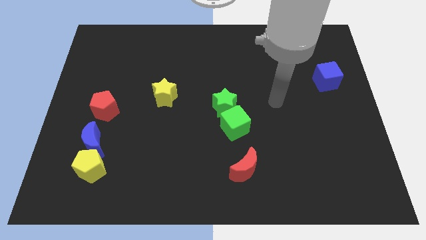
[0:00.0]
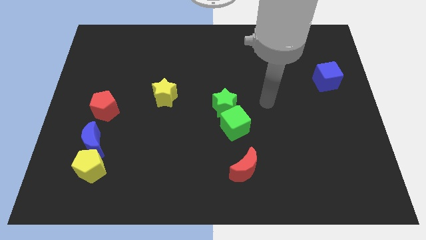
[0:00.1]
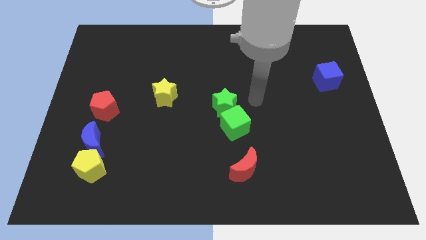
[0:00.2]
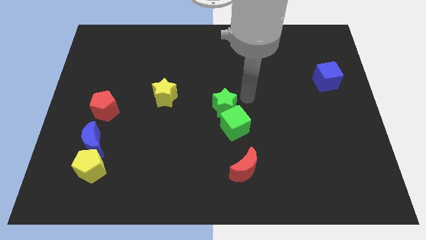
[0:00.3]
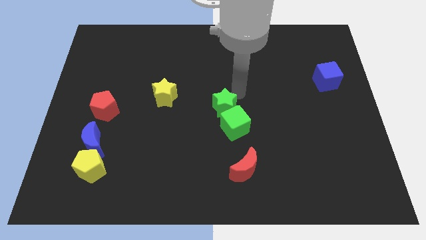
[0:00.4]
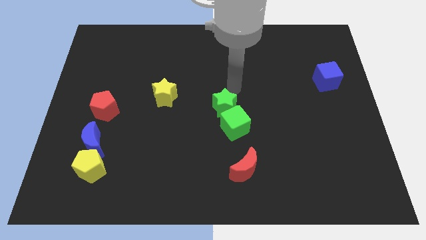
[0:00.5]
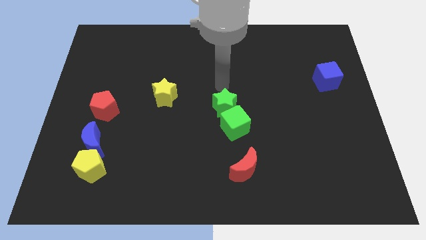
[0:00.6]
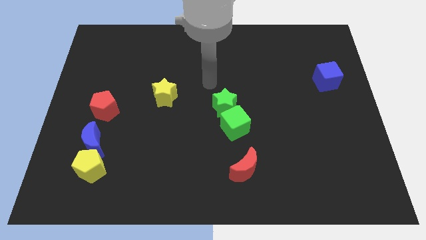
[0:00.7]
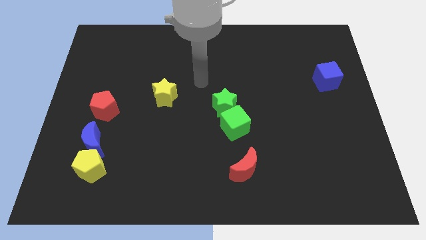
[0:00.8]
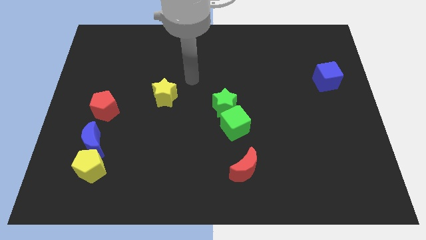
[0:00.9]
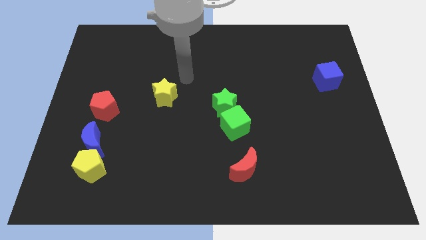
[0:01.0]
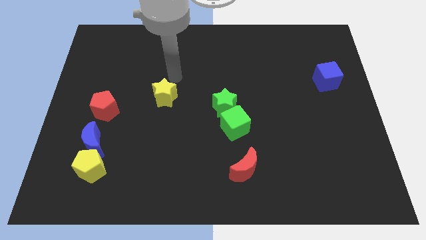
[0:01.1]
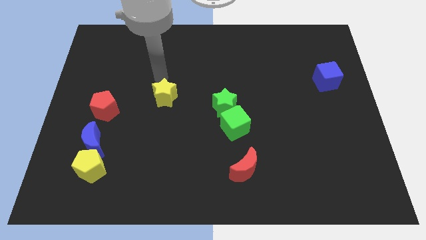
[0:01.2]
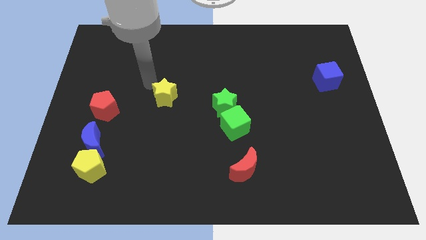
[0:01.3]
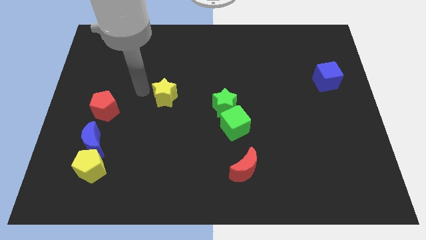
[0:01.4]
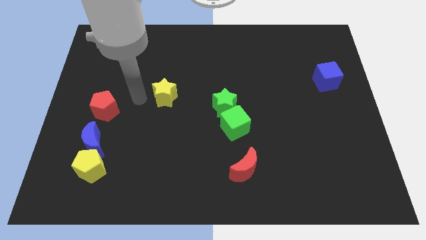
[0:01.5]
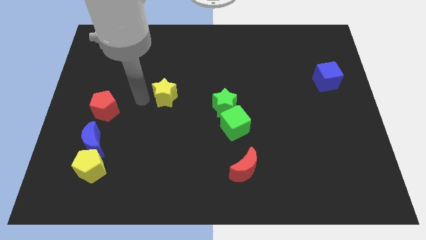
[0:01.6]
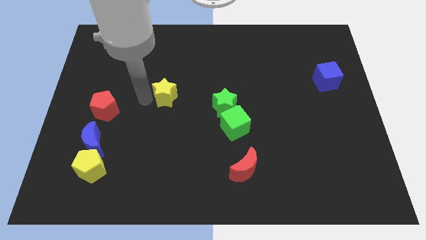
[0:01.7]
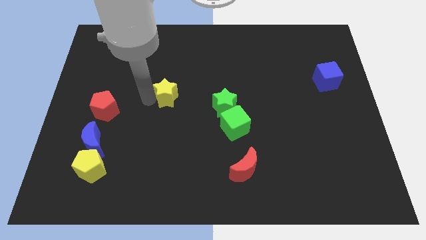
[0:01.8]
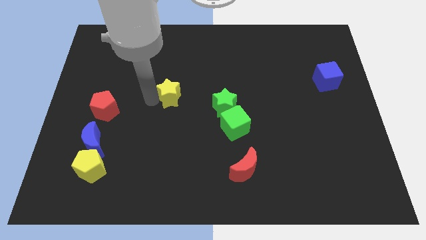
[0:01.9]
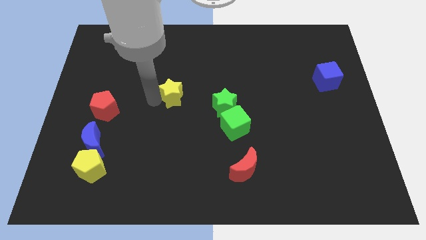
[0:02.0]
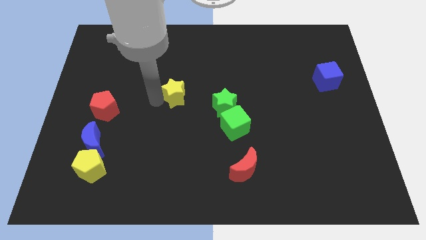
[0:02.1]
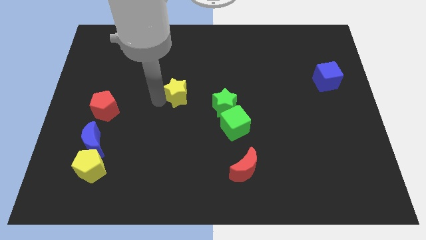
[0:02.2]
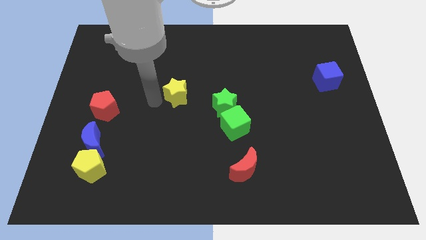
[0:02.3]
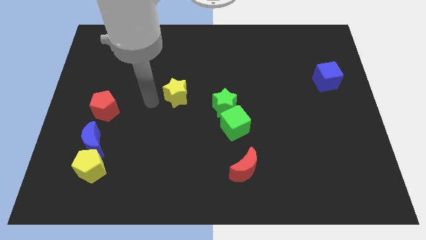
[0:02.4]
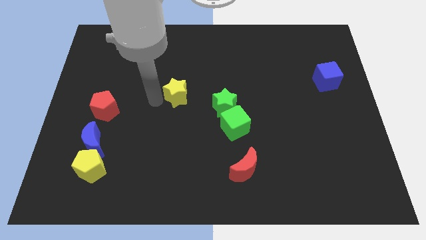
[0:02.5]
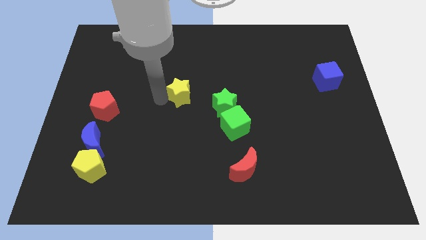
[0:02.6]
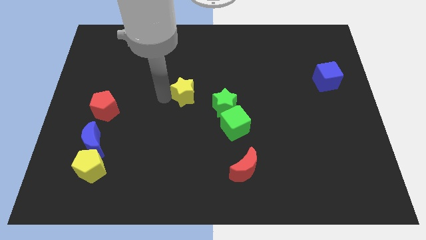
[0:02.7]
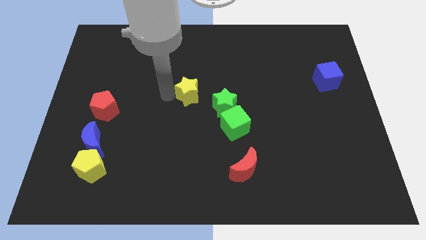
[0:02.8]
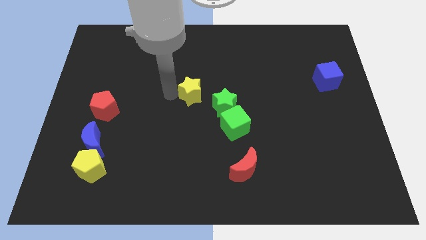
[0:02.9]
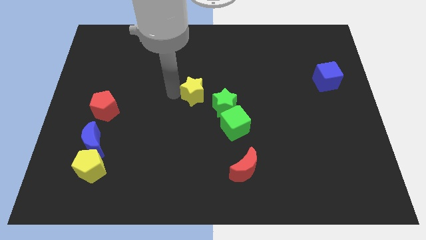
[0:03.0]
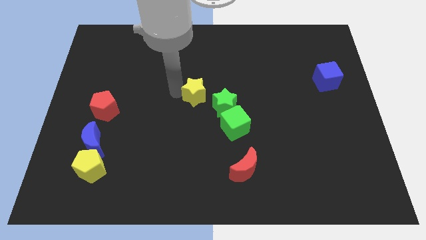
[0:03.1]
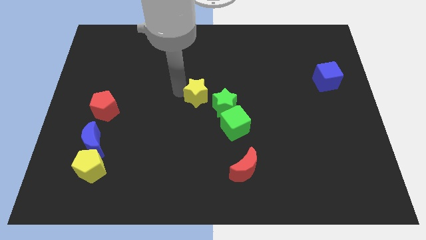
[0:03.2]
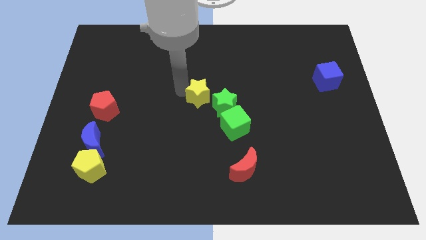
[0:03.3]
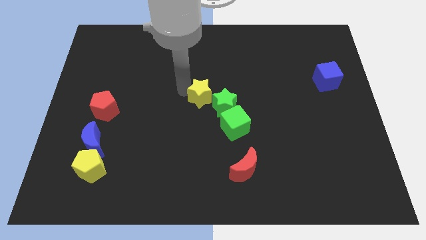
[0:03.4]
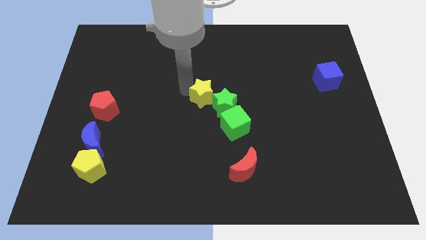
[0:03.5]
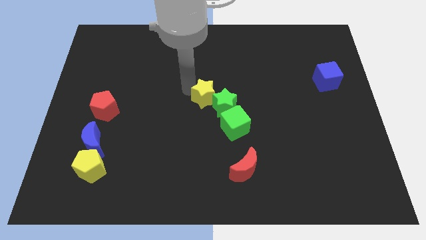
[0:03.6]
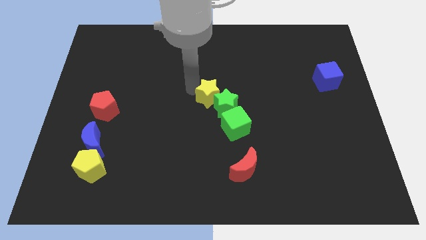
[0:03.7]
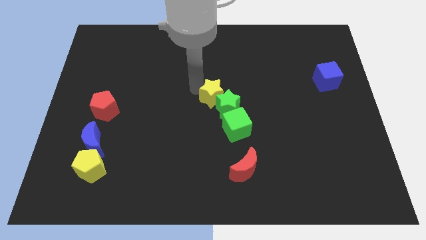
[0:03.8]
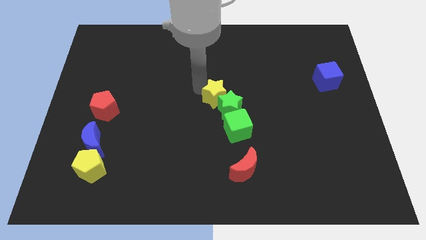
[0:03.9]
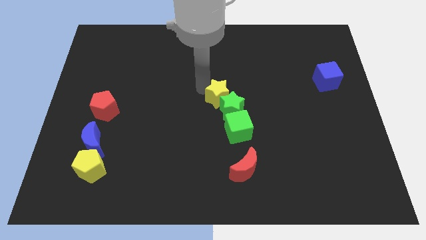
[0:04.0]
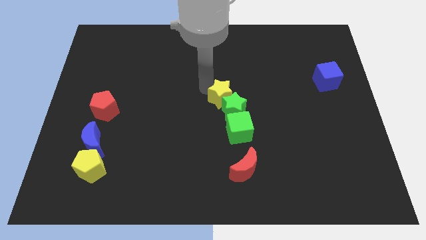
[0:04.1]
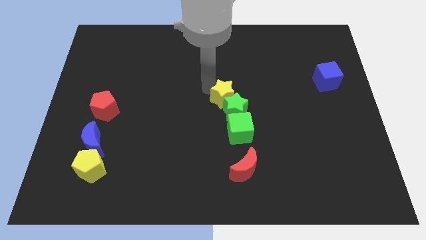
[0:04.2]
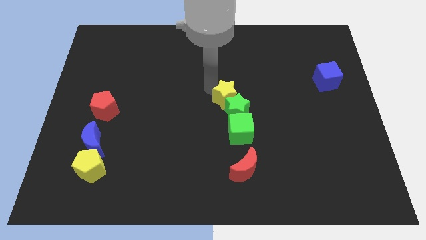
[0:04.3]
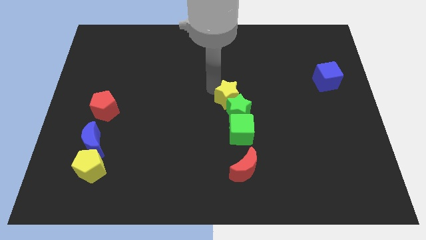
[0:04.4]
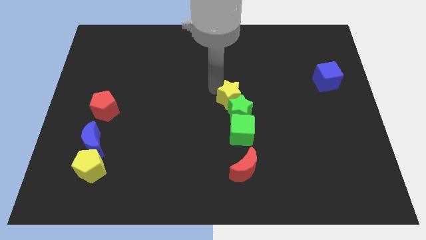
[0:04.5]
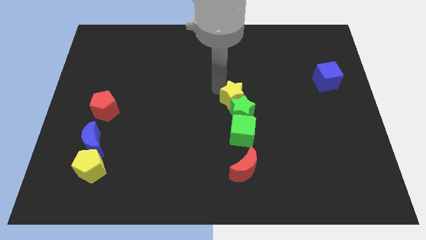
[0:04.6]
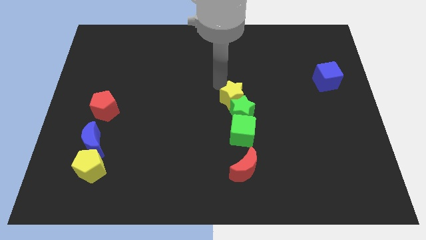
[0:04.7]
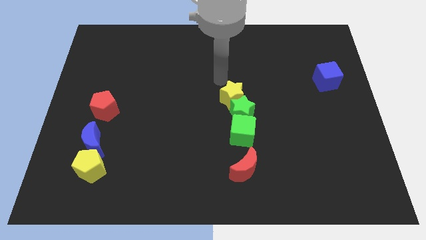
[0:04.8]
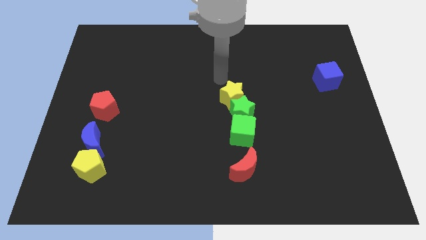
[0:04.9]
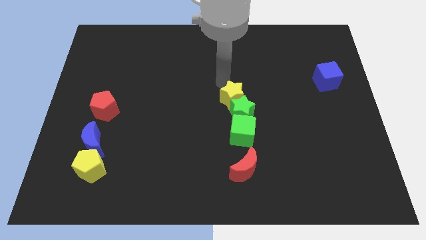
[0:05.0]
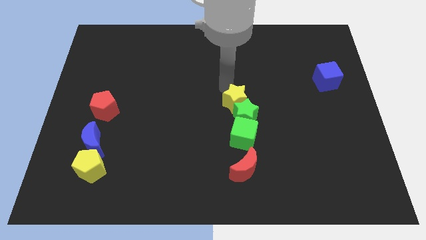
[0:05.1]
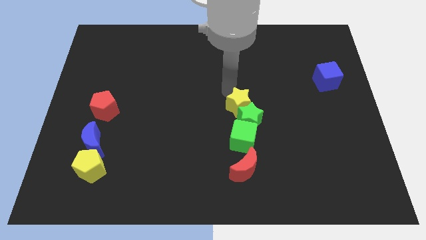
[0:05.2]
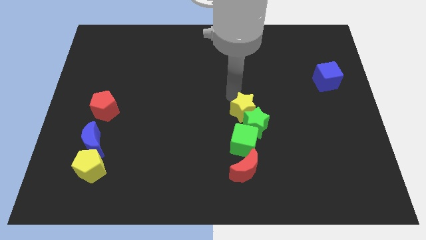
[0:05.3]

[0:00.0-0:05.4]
push the yellow star to the top of the red moon

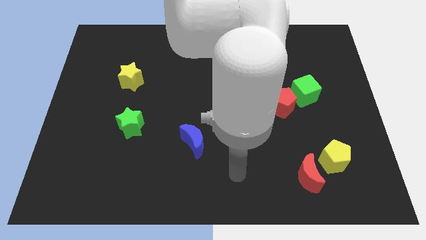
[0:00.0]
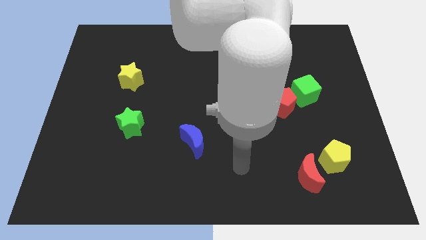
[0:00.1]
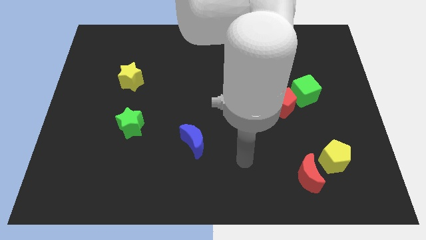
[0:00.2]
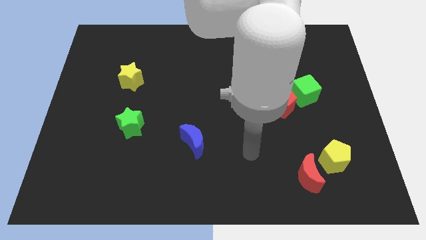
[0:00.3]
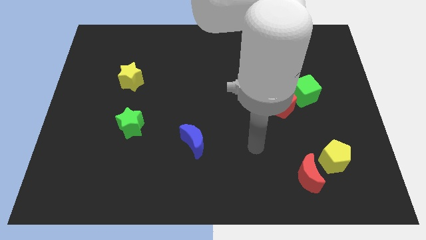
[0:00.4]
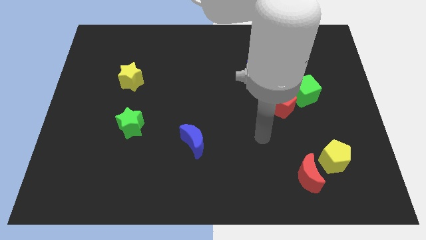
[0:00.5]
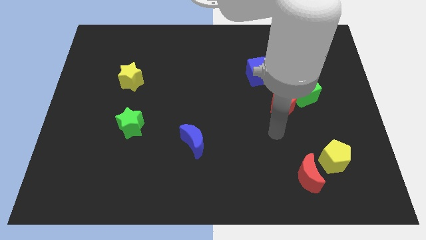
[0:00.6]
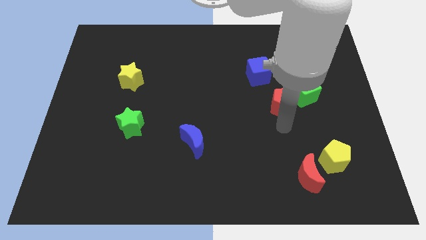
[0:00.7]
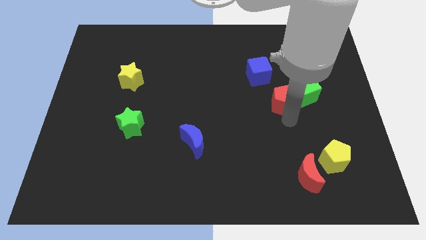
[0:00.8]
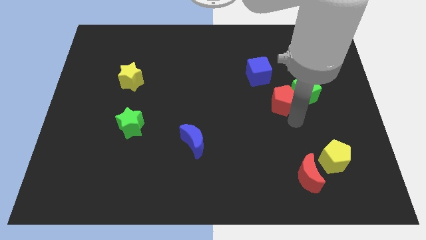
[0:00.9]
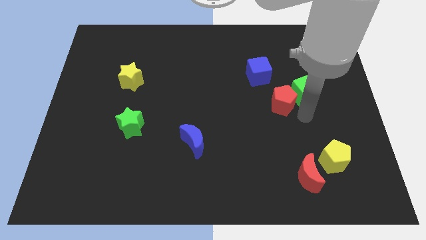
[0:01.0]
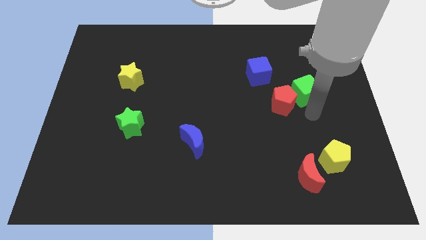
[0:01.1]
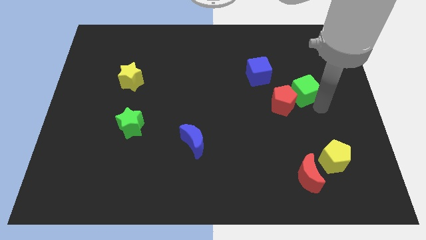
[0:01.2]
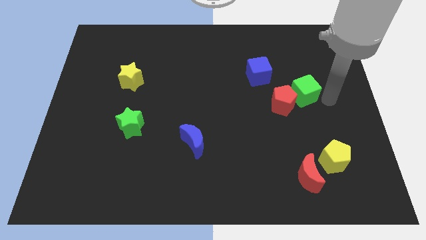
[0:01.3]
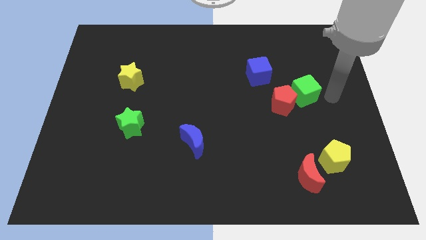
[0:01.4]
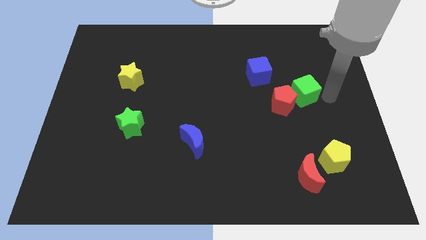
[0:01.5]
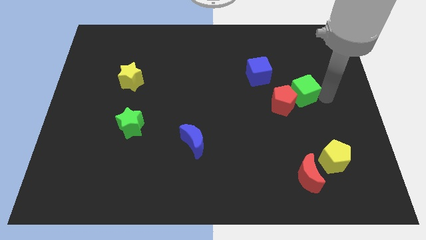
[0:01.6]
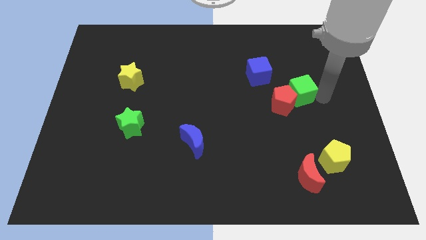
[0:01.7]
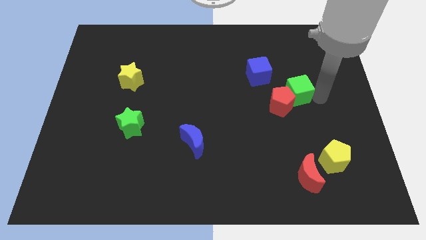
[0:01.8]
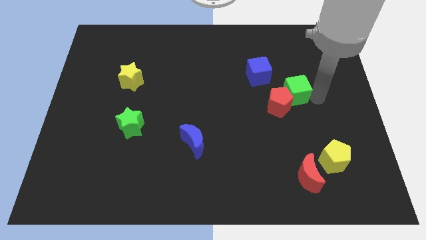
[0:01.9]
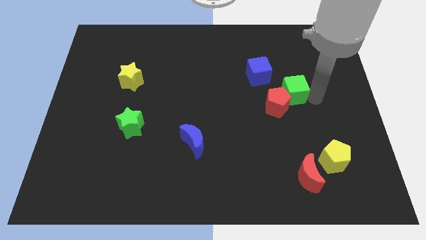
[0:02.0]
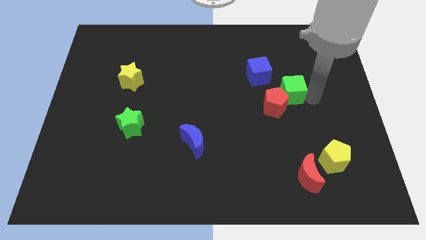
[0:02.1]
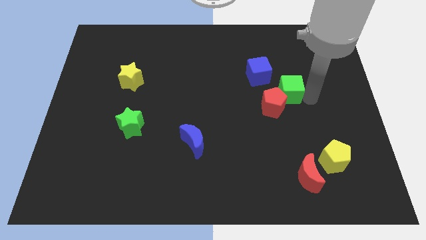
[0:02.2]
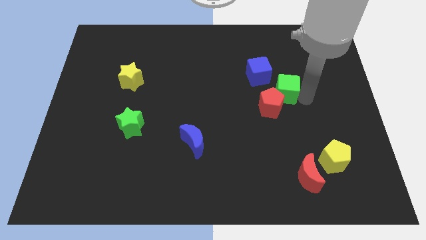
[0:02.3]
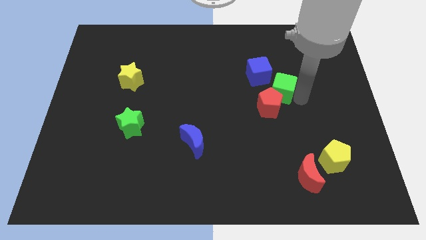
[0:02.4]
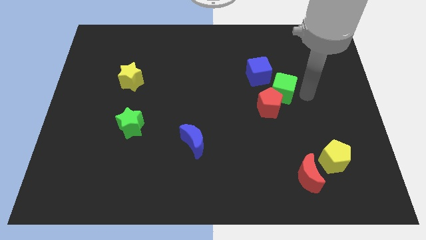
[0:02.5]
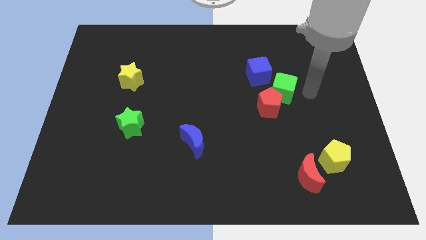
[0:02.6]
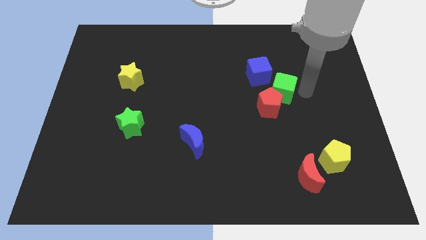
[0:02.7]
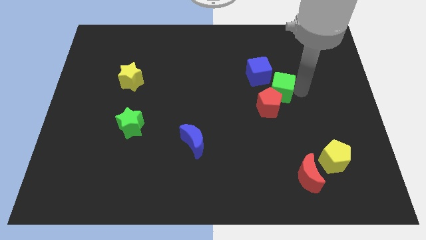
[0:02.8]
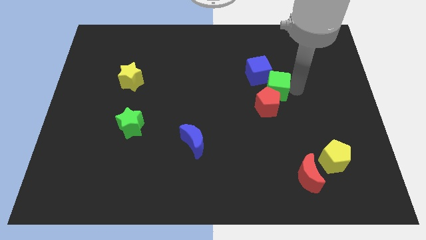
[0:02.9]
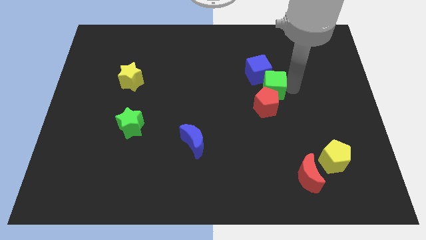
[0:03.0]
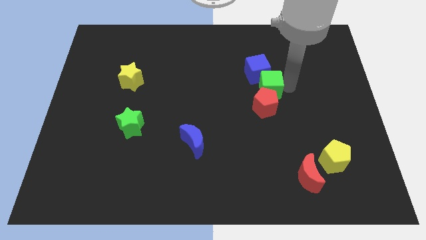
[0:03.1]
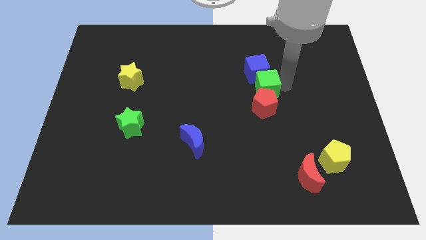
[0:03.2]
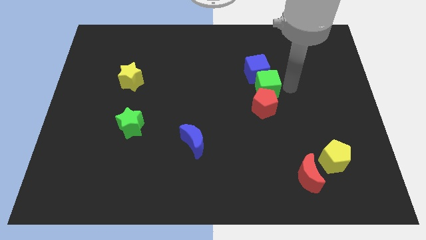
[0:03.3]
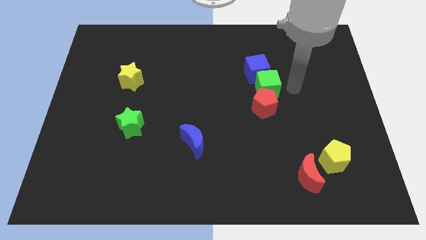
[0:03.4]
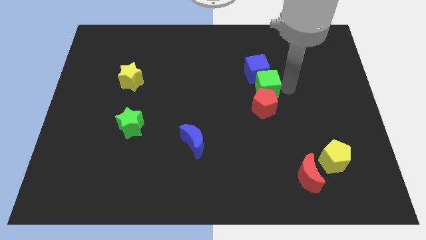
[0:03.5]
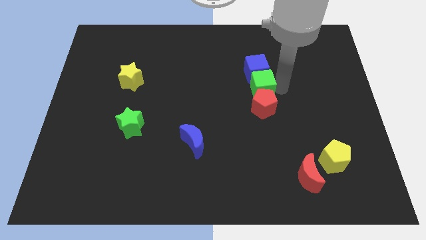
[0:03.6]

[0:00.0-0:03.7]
push the green cube to the bottom left of the blue cube
